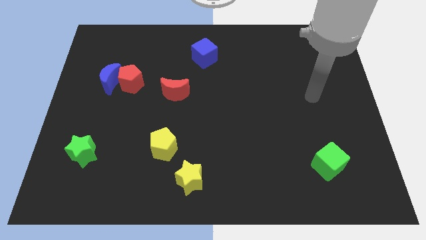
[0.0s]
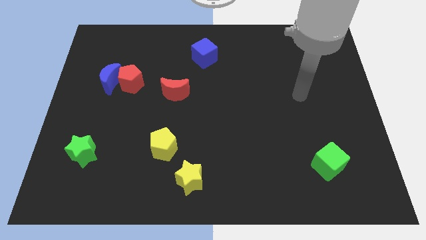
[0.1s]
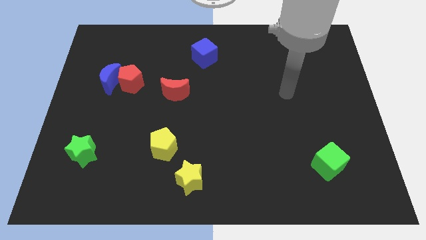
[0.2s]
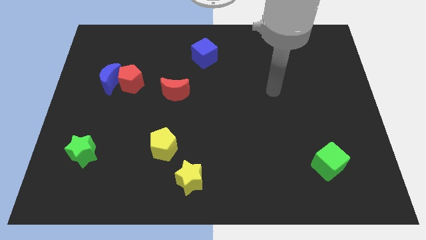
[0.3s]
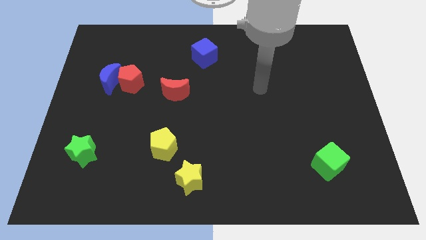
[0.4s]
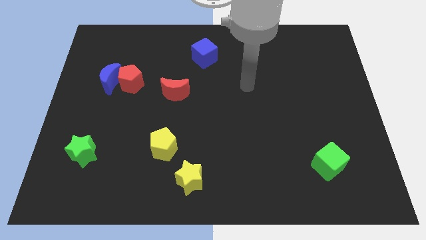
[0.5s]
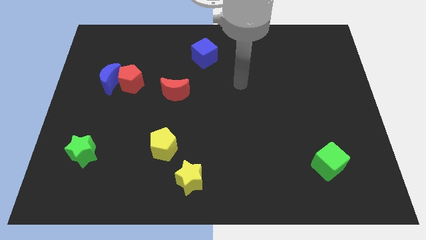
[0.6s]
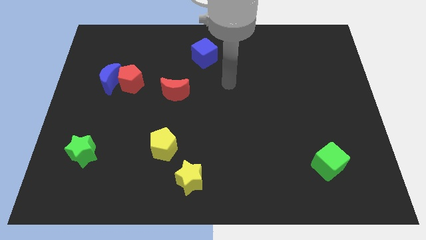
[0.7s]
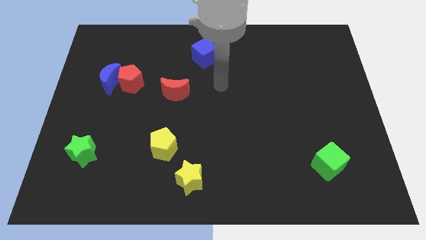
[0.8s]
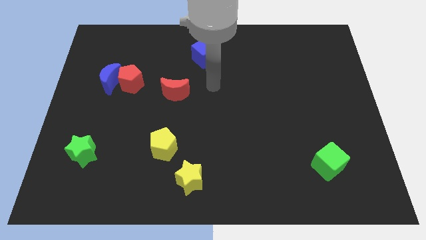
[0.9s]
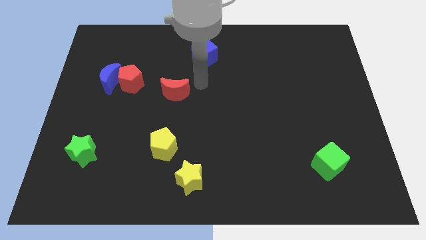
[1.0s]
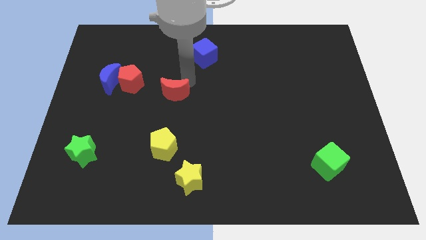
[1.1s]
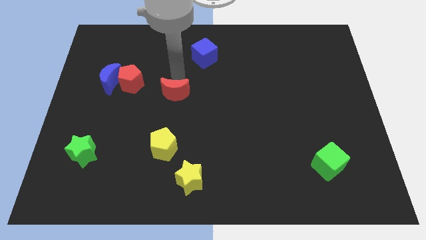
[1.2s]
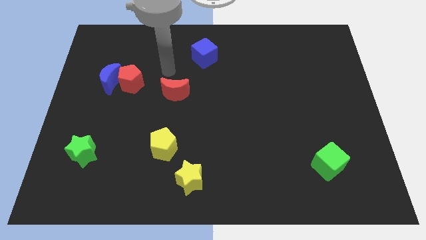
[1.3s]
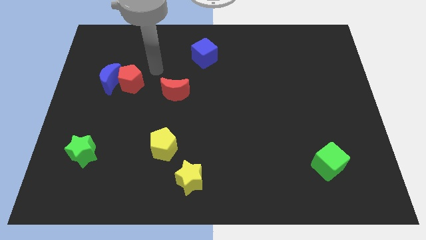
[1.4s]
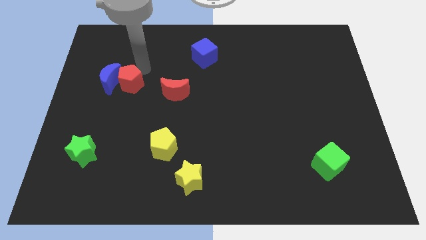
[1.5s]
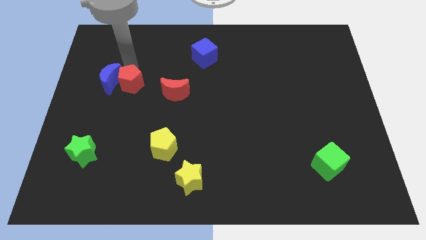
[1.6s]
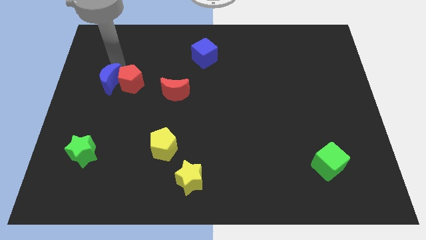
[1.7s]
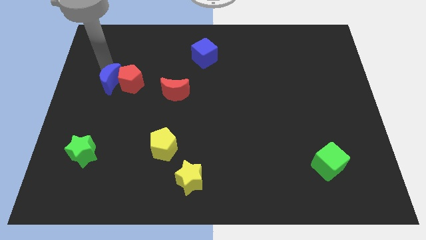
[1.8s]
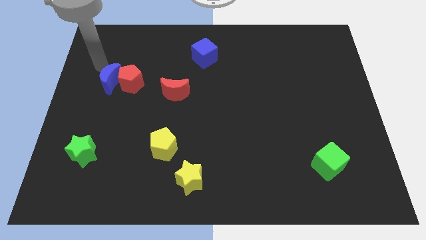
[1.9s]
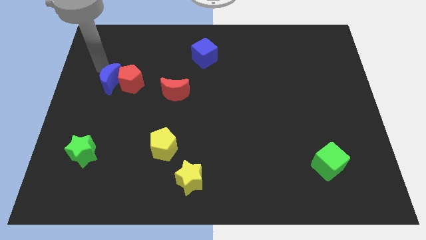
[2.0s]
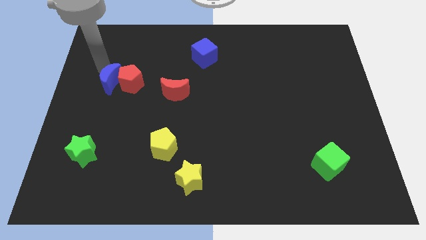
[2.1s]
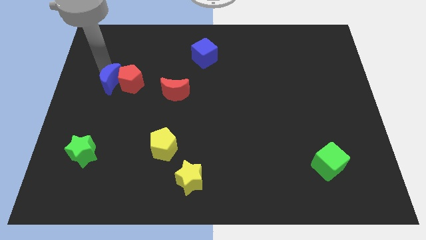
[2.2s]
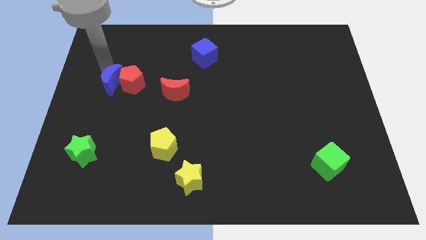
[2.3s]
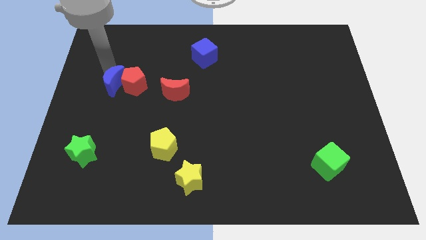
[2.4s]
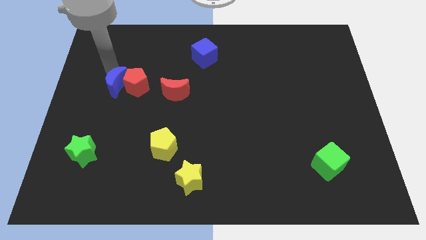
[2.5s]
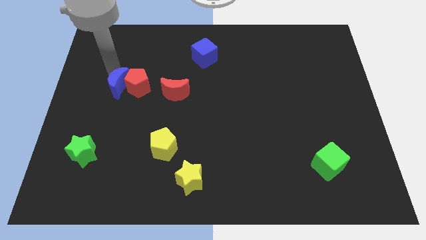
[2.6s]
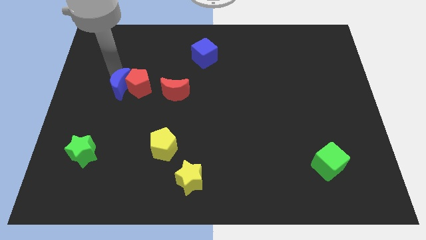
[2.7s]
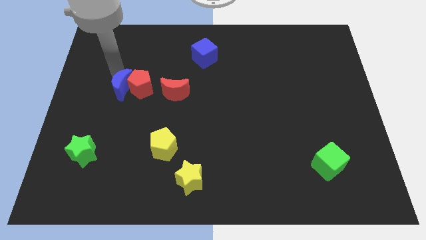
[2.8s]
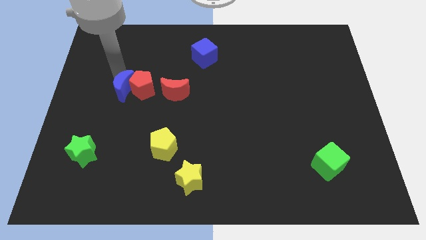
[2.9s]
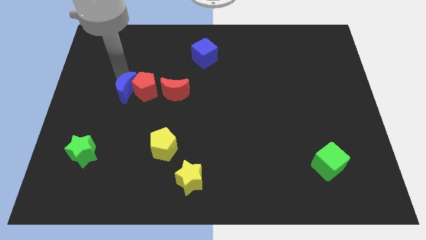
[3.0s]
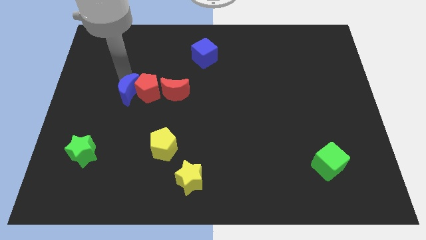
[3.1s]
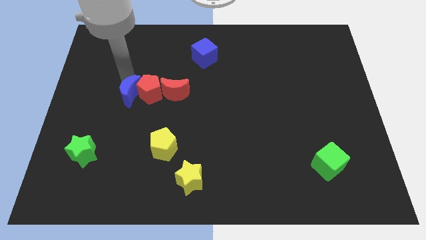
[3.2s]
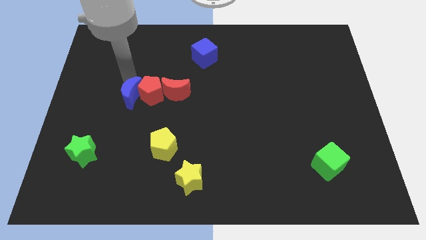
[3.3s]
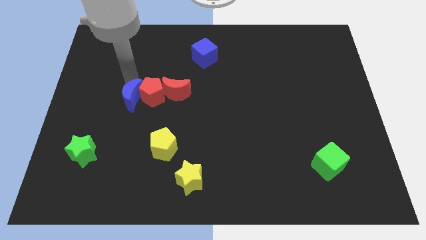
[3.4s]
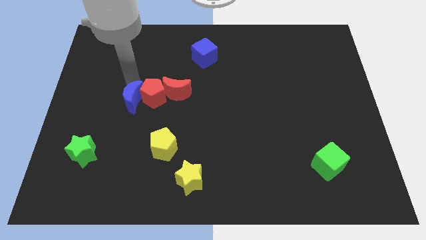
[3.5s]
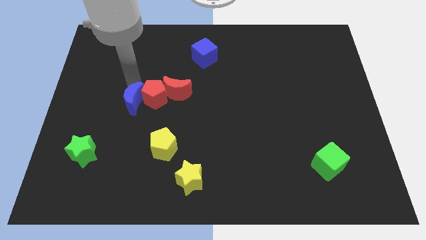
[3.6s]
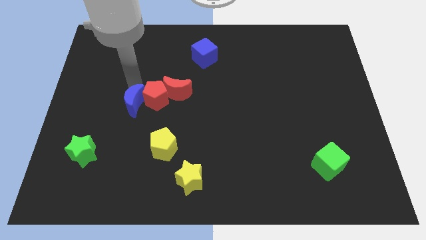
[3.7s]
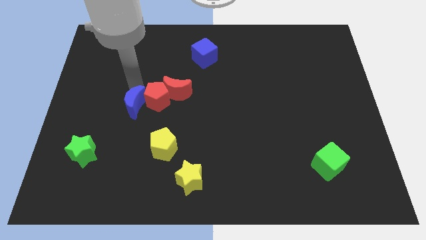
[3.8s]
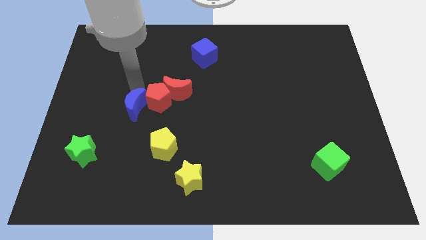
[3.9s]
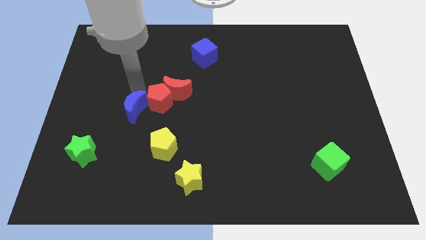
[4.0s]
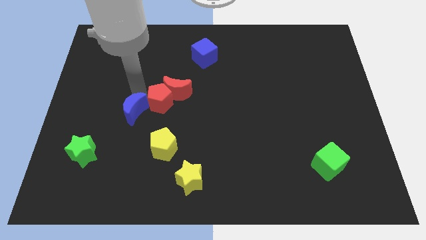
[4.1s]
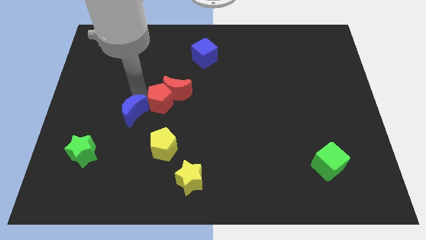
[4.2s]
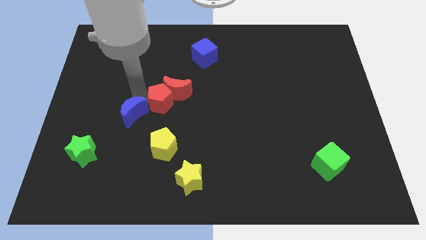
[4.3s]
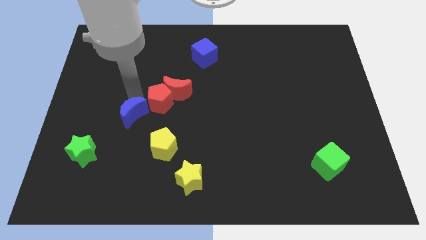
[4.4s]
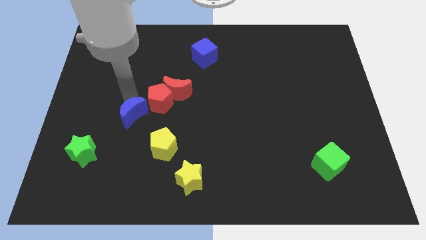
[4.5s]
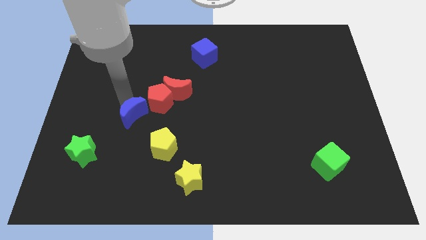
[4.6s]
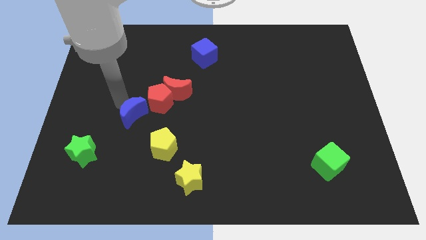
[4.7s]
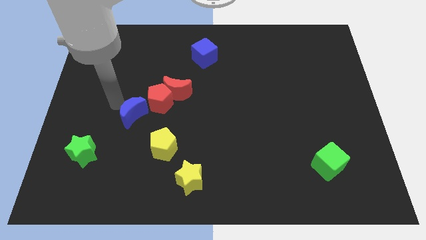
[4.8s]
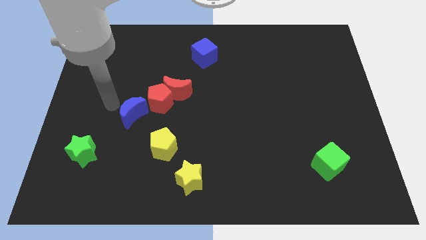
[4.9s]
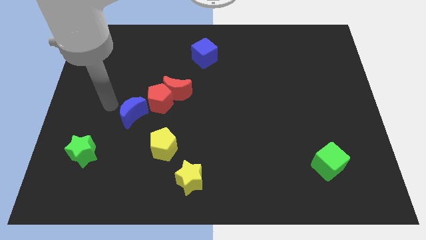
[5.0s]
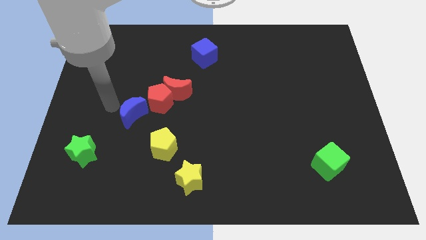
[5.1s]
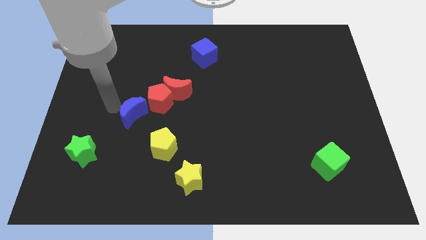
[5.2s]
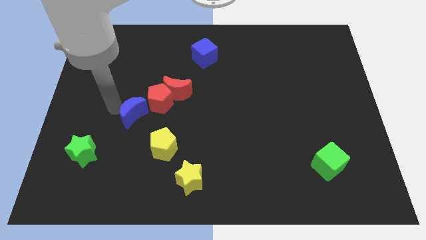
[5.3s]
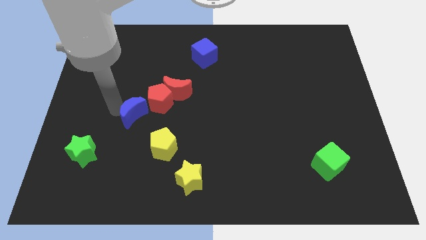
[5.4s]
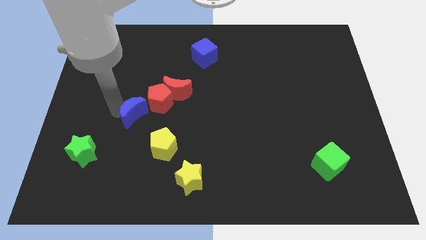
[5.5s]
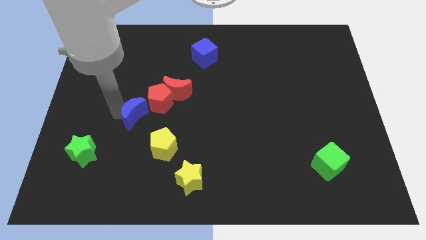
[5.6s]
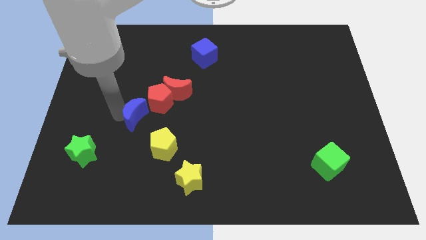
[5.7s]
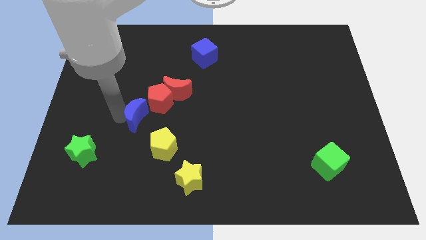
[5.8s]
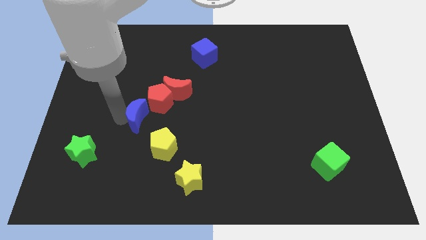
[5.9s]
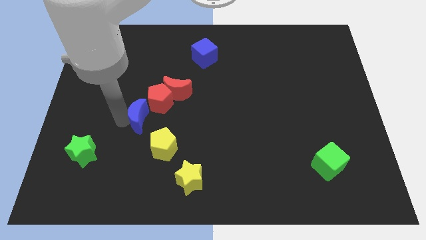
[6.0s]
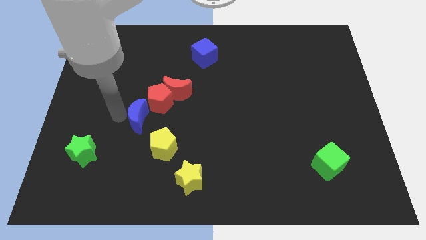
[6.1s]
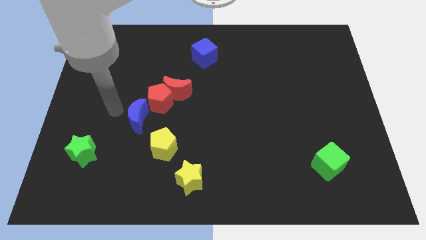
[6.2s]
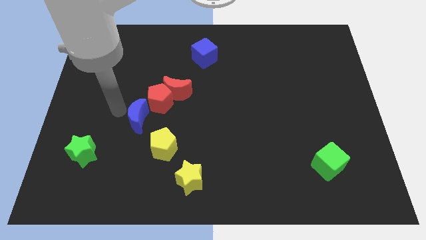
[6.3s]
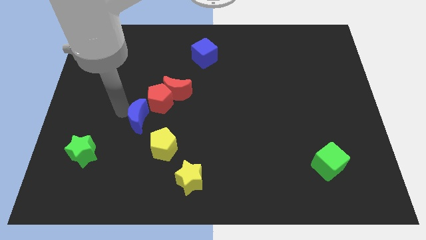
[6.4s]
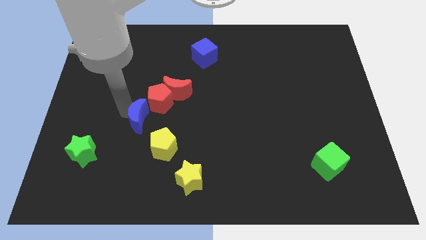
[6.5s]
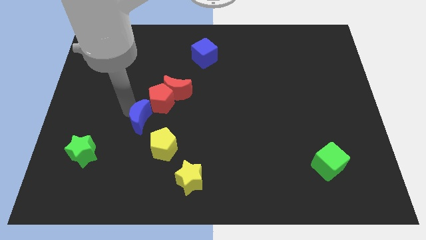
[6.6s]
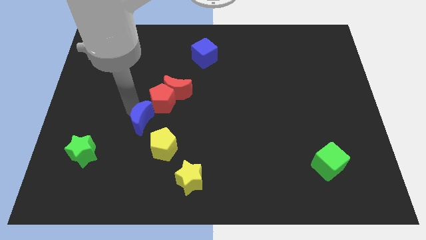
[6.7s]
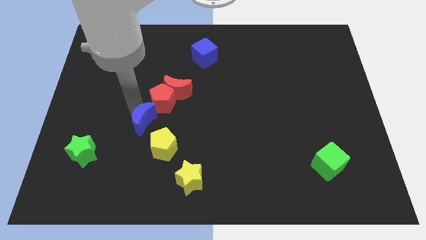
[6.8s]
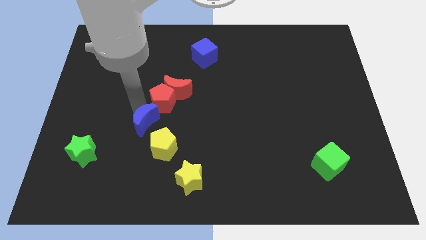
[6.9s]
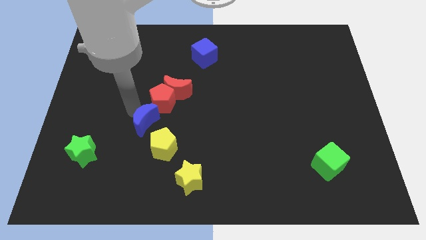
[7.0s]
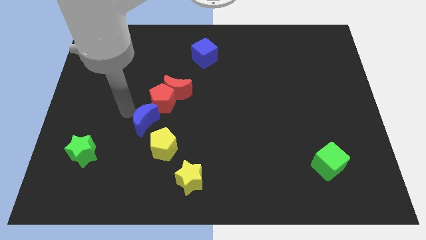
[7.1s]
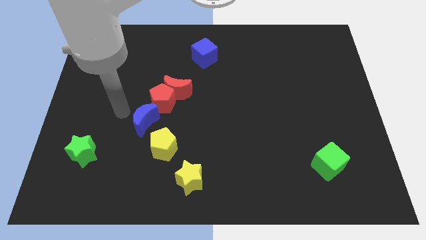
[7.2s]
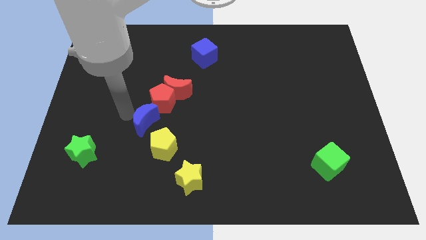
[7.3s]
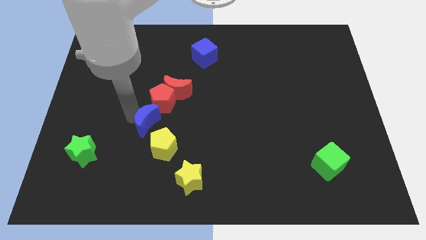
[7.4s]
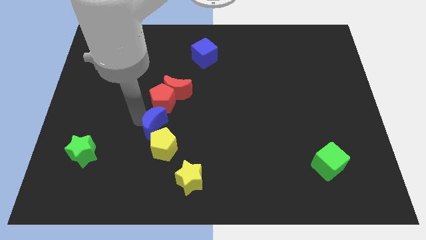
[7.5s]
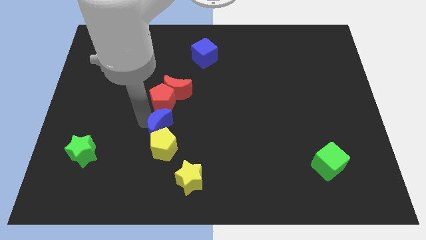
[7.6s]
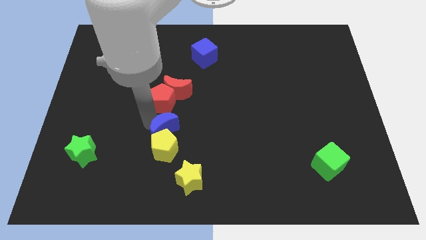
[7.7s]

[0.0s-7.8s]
move the blue moon diagonally down and to the right

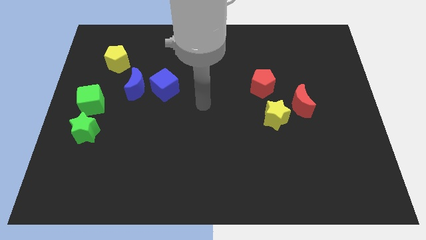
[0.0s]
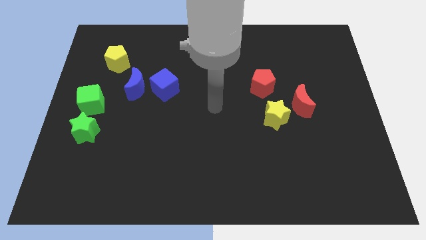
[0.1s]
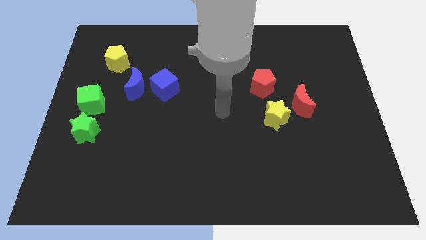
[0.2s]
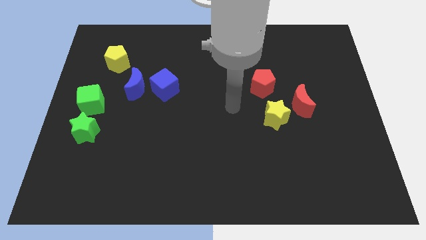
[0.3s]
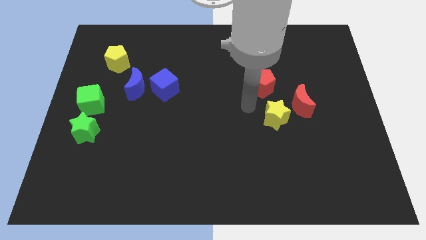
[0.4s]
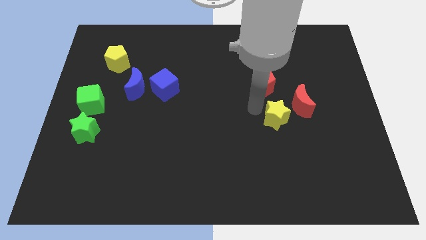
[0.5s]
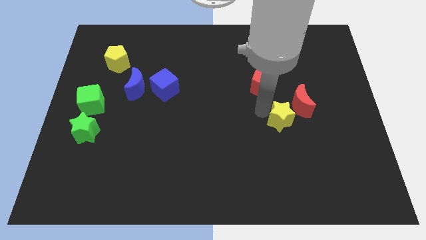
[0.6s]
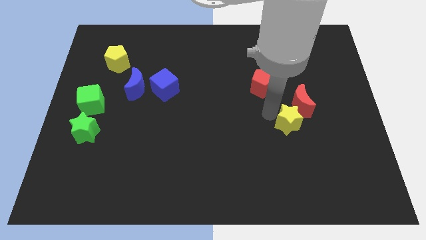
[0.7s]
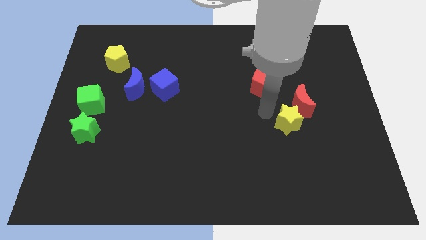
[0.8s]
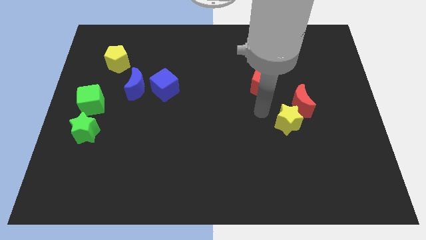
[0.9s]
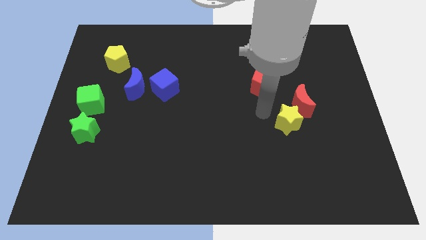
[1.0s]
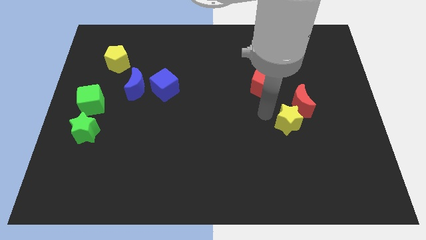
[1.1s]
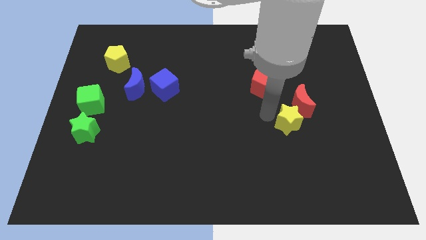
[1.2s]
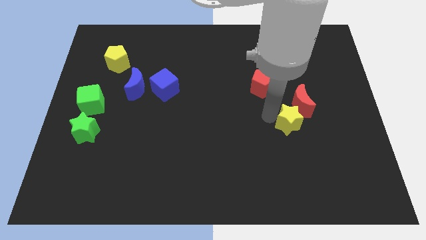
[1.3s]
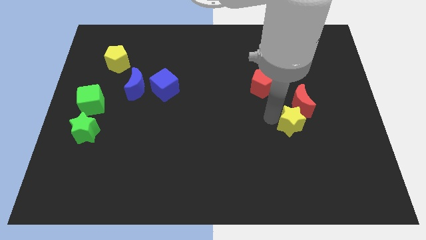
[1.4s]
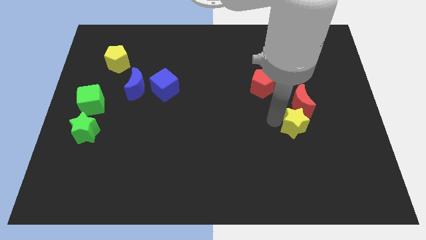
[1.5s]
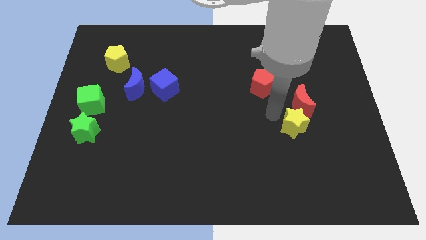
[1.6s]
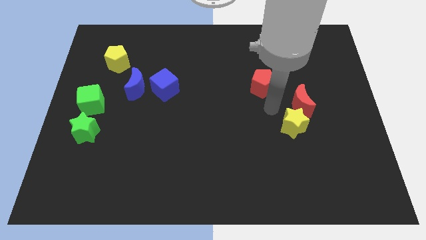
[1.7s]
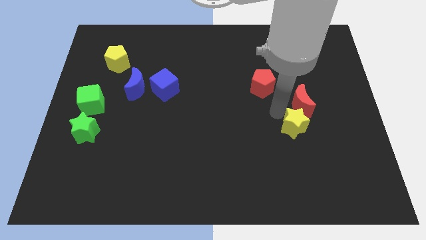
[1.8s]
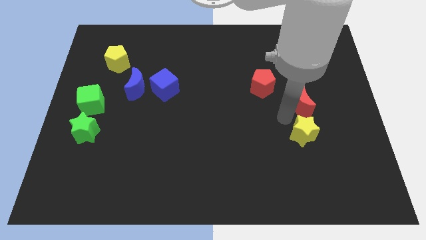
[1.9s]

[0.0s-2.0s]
slide the yellow star a little downwards and then right
